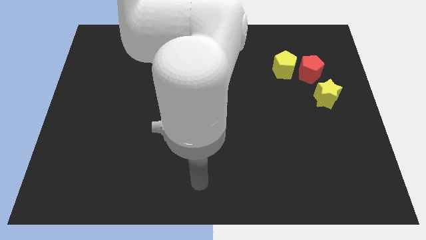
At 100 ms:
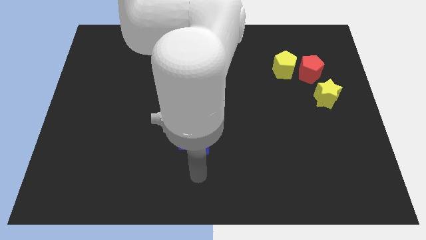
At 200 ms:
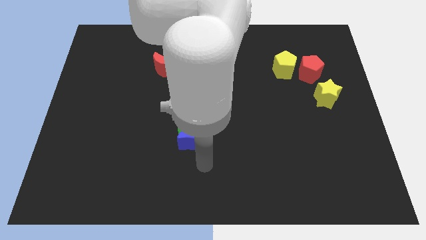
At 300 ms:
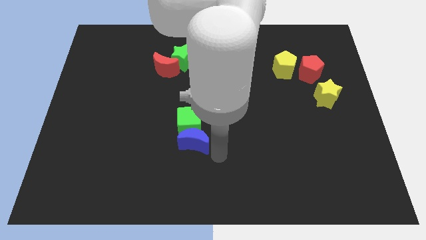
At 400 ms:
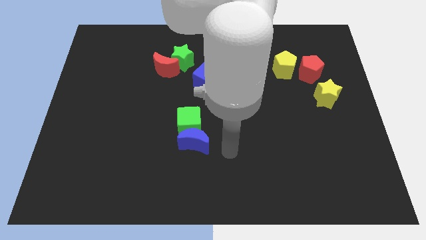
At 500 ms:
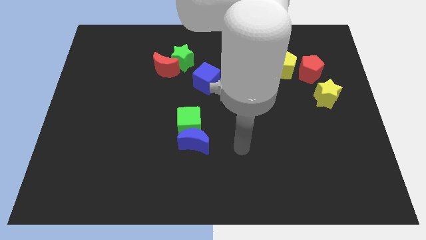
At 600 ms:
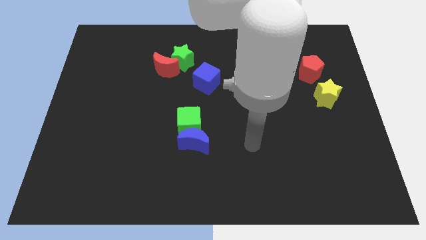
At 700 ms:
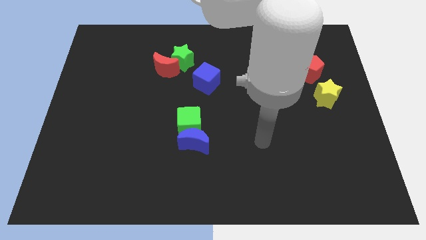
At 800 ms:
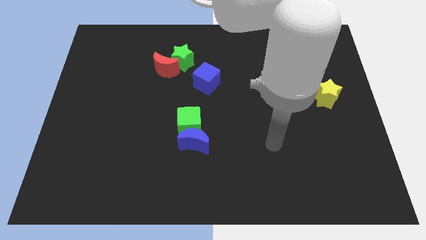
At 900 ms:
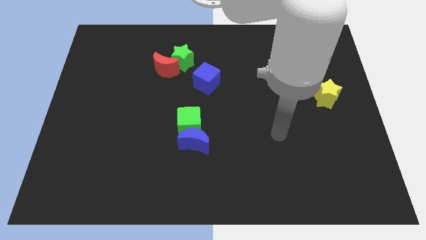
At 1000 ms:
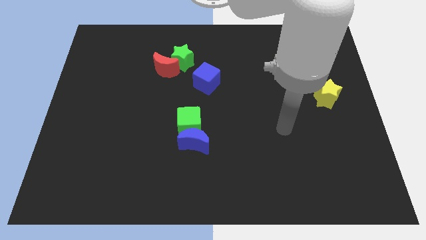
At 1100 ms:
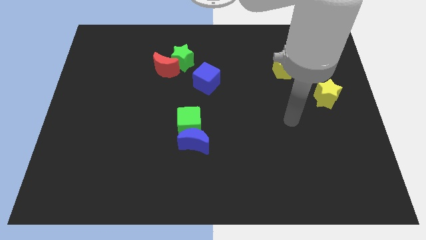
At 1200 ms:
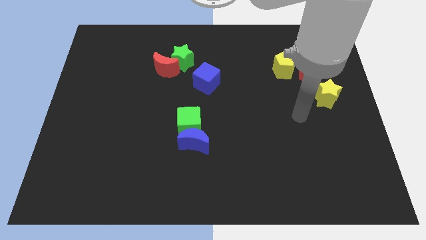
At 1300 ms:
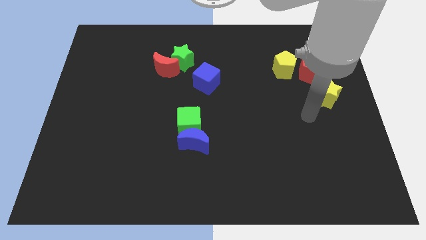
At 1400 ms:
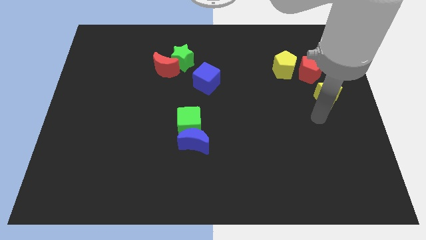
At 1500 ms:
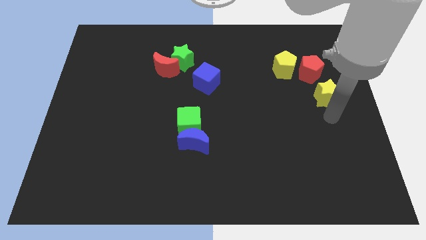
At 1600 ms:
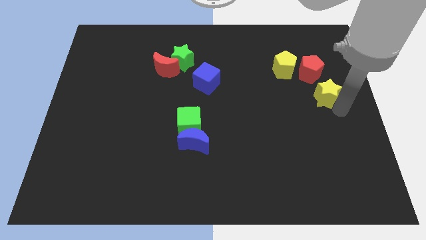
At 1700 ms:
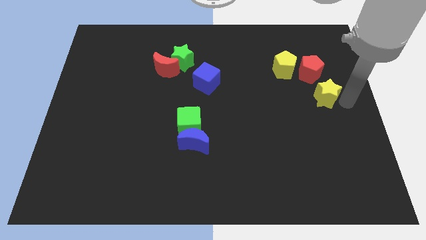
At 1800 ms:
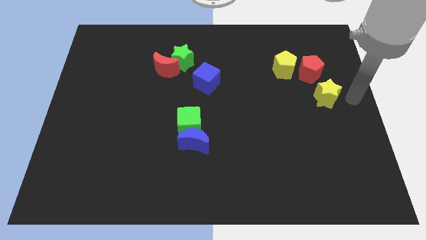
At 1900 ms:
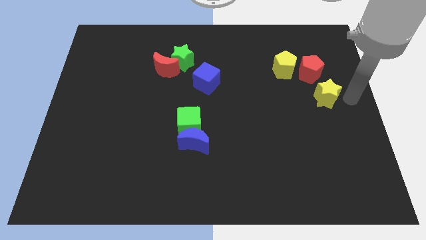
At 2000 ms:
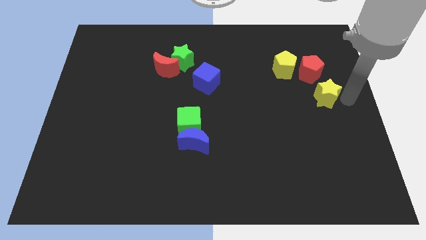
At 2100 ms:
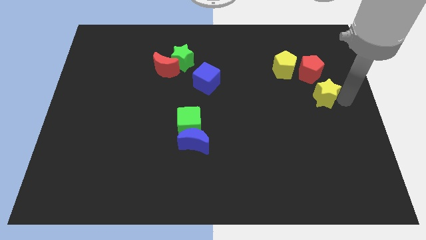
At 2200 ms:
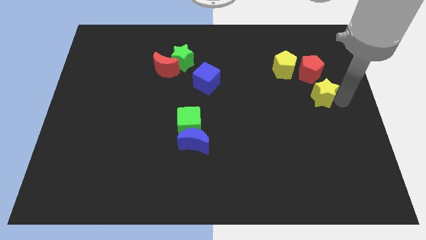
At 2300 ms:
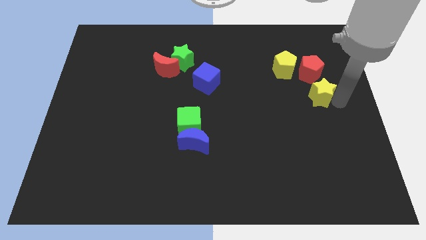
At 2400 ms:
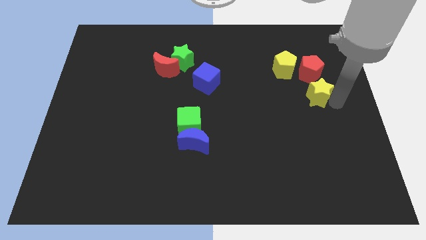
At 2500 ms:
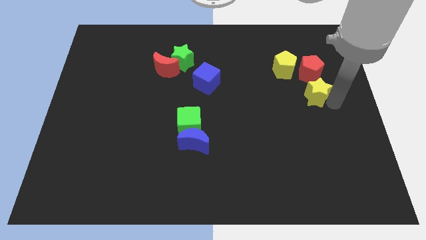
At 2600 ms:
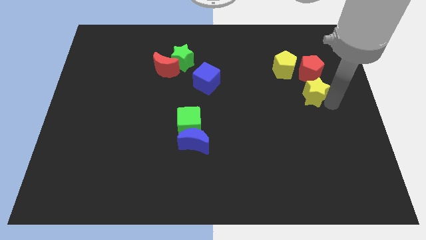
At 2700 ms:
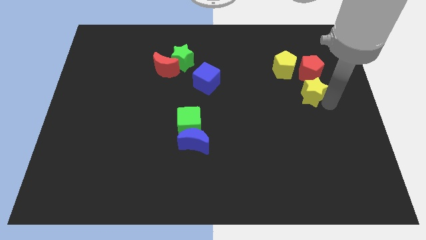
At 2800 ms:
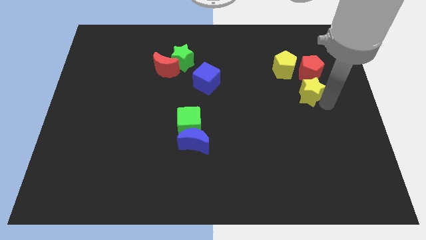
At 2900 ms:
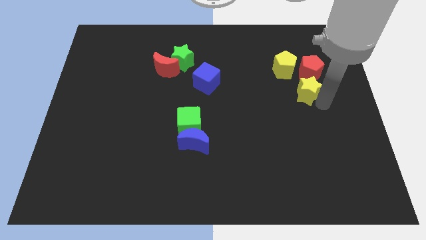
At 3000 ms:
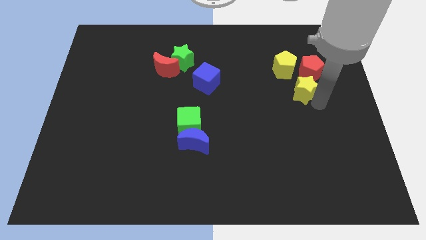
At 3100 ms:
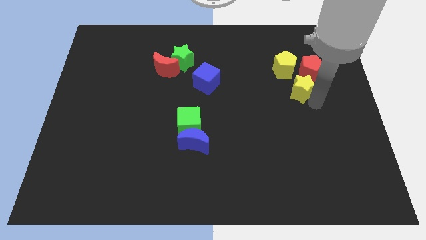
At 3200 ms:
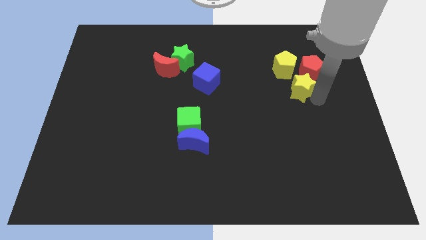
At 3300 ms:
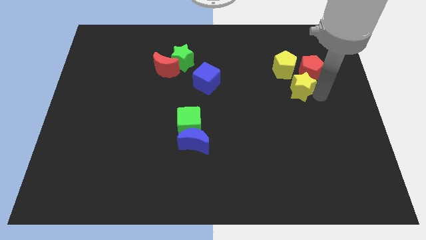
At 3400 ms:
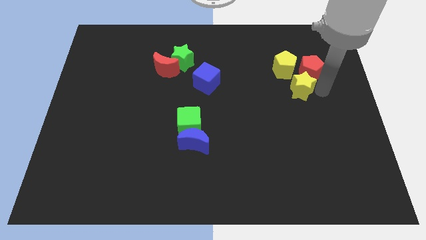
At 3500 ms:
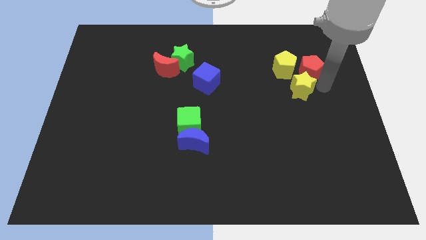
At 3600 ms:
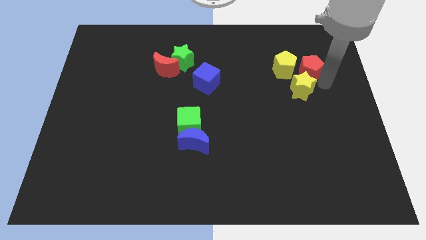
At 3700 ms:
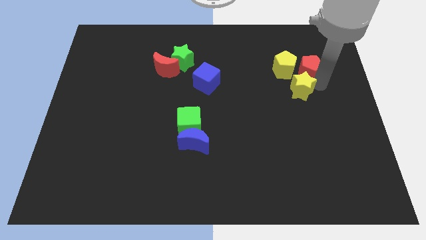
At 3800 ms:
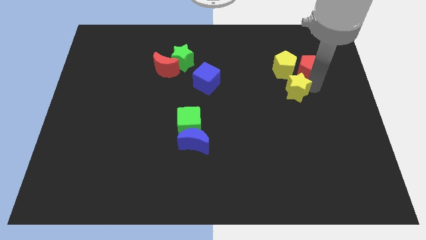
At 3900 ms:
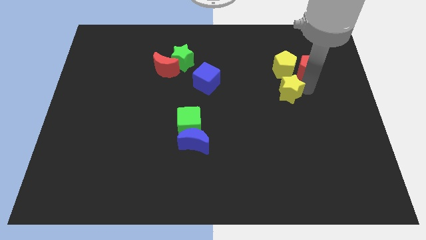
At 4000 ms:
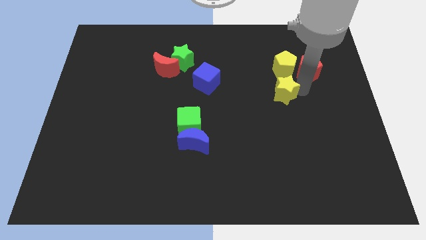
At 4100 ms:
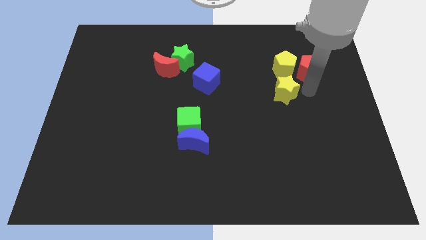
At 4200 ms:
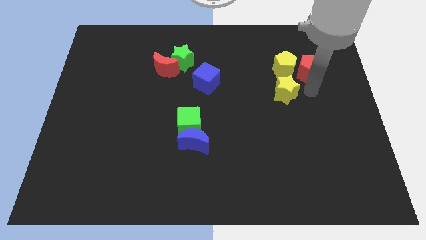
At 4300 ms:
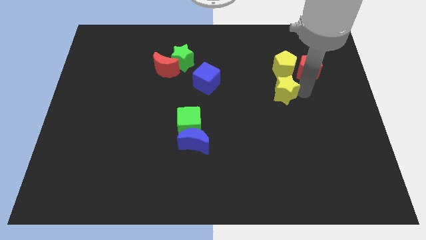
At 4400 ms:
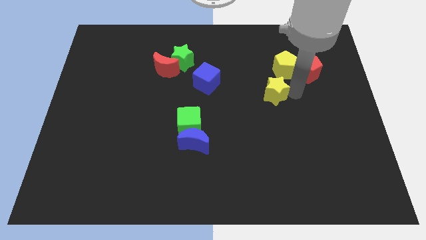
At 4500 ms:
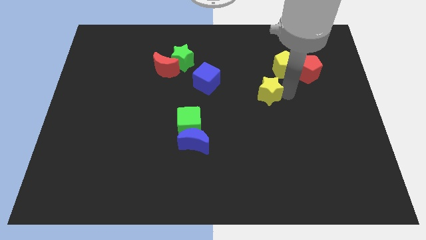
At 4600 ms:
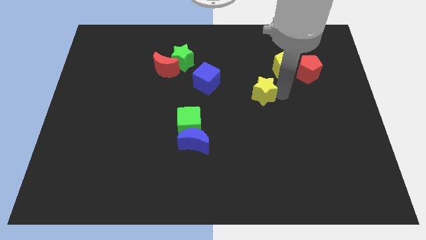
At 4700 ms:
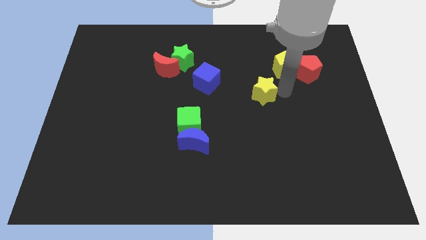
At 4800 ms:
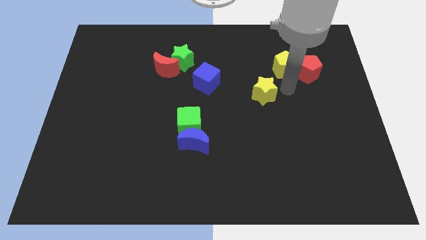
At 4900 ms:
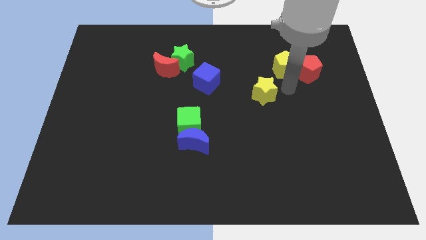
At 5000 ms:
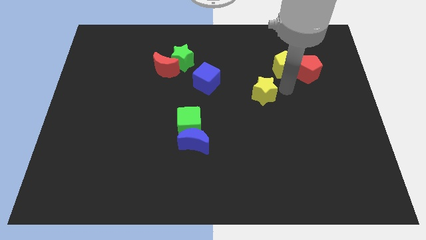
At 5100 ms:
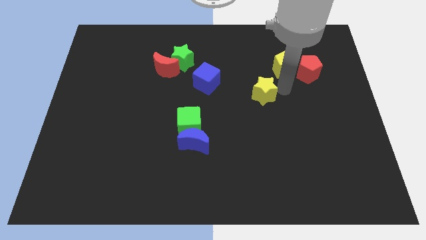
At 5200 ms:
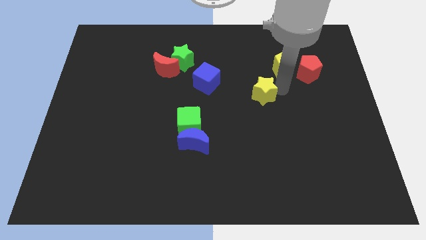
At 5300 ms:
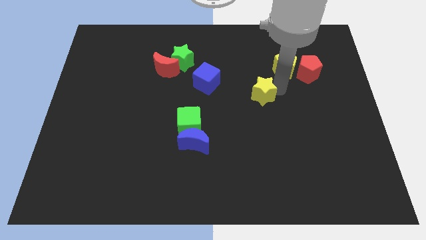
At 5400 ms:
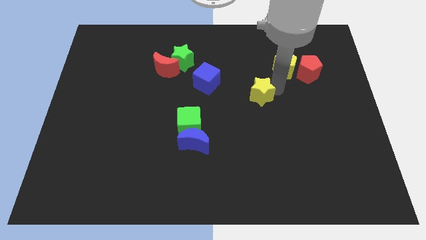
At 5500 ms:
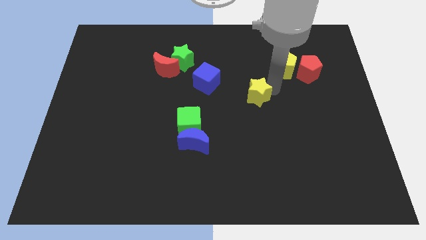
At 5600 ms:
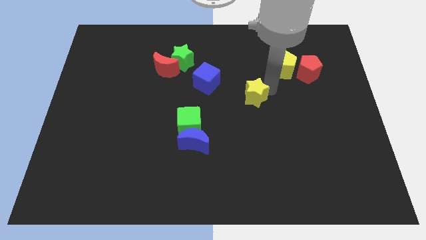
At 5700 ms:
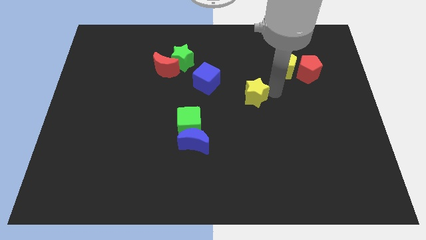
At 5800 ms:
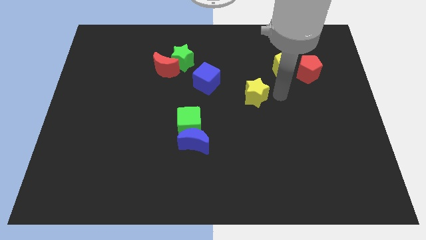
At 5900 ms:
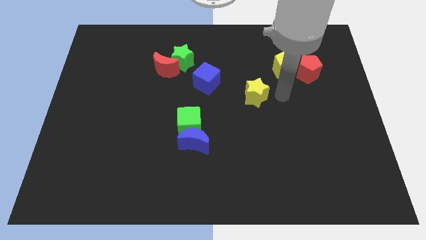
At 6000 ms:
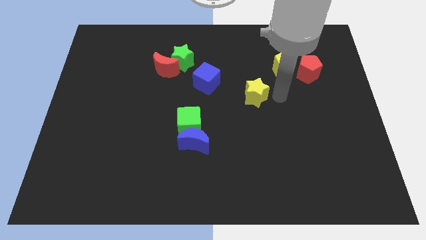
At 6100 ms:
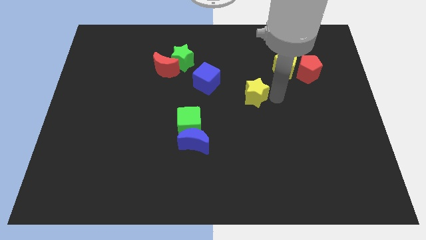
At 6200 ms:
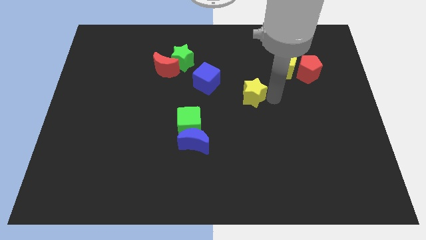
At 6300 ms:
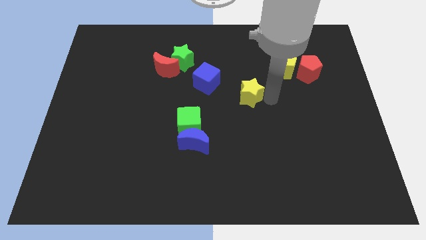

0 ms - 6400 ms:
move the yellow star to the bottom right side of the blue cube

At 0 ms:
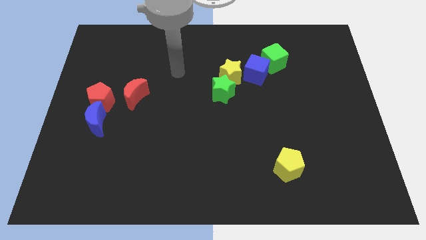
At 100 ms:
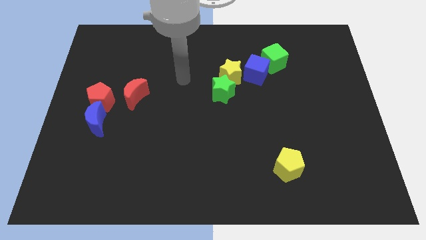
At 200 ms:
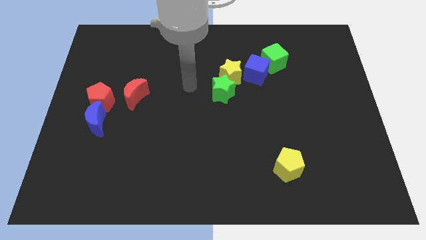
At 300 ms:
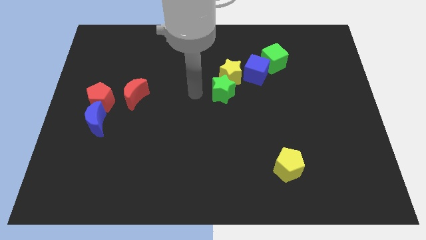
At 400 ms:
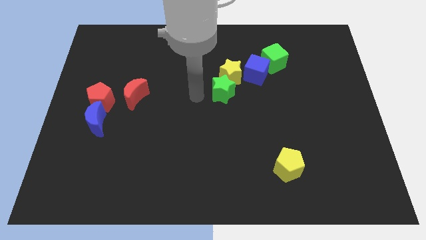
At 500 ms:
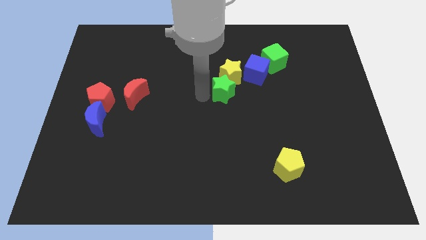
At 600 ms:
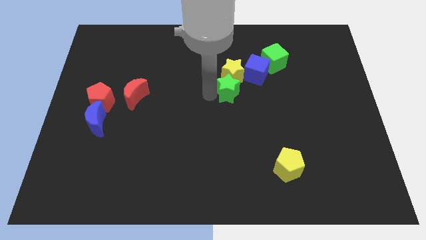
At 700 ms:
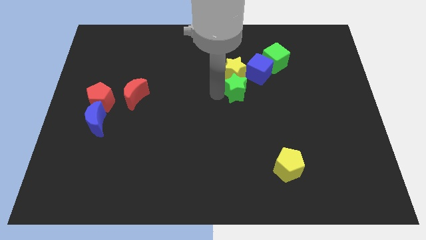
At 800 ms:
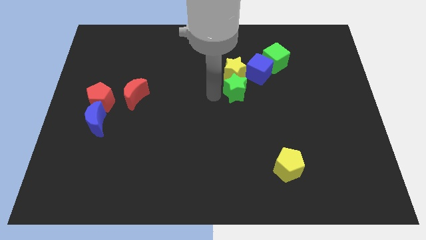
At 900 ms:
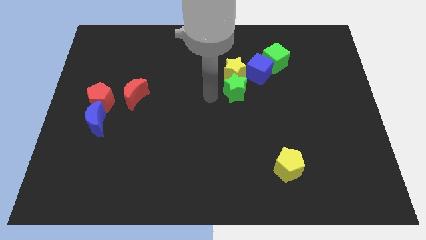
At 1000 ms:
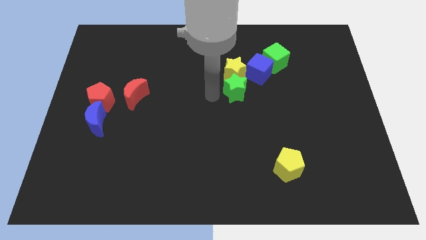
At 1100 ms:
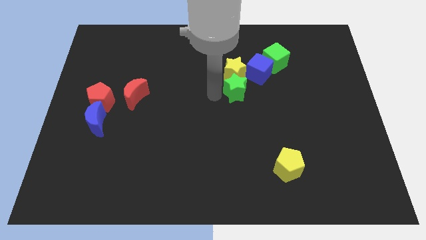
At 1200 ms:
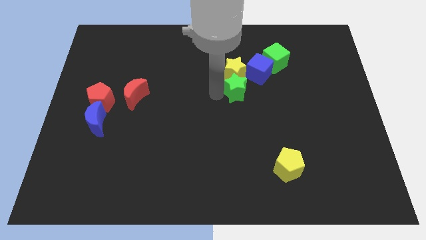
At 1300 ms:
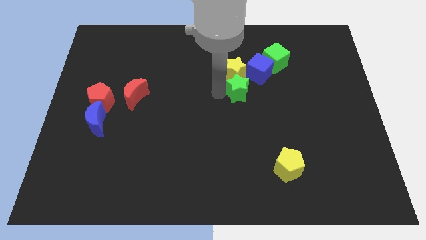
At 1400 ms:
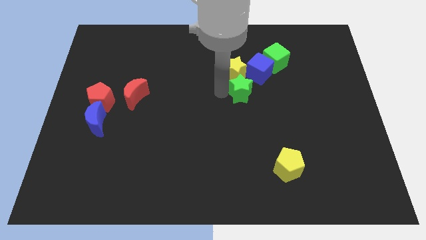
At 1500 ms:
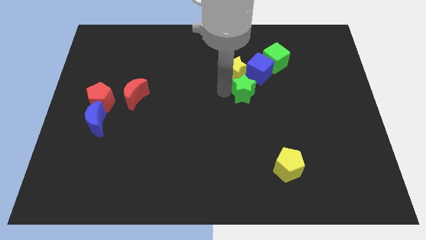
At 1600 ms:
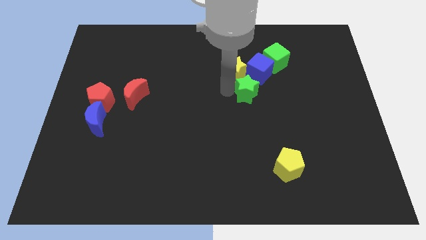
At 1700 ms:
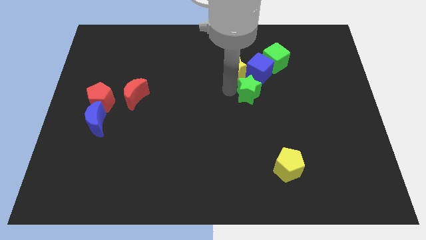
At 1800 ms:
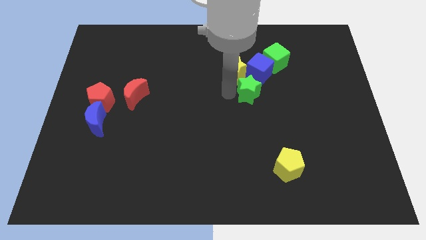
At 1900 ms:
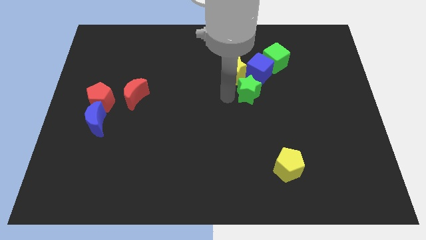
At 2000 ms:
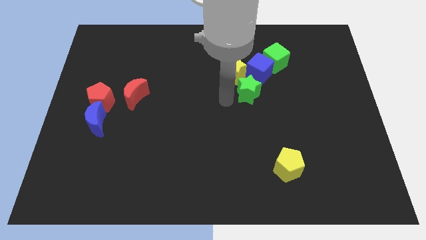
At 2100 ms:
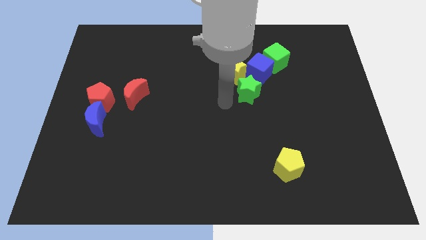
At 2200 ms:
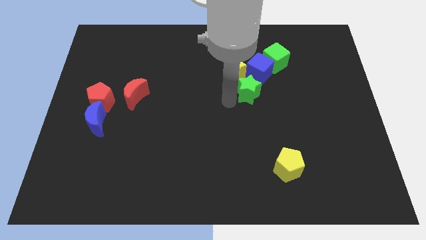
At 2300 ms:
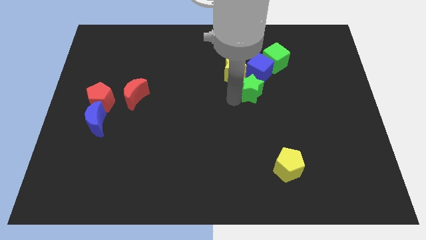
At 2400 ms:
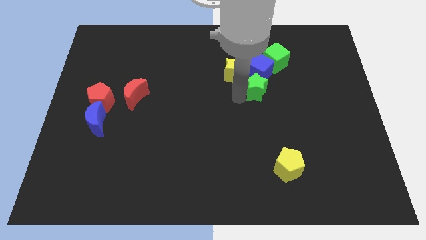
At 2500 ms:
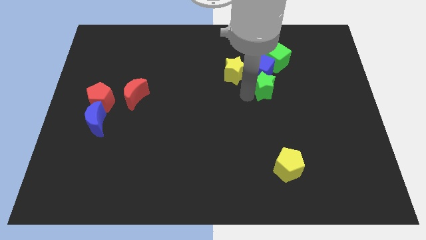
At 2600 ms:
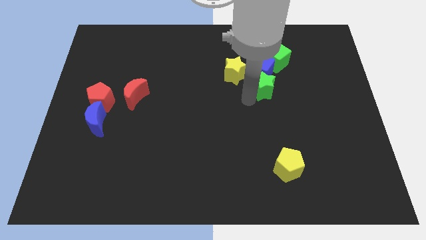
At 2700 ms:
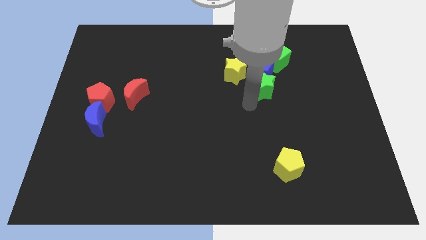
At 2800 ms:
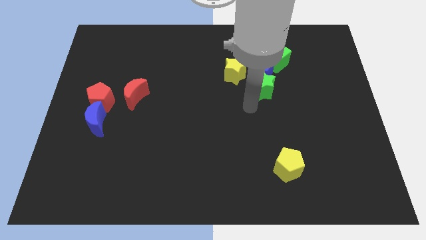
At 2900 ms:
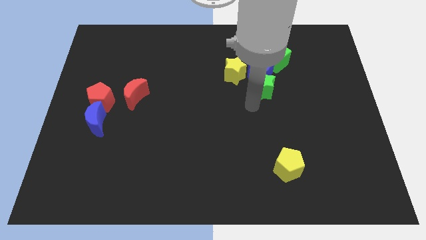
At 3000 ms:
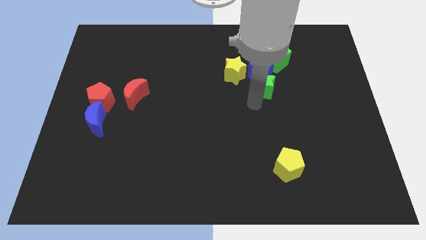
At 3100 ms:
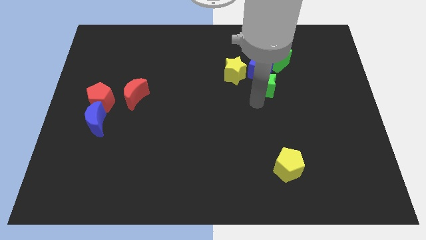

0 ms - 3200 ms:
move the green star to the right of the yellow star
